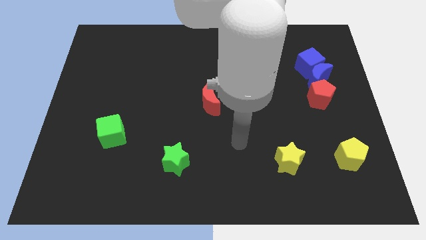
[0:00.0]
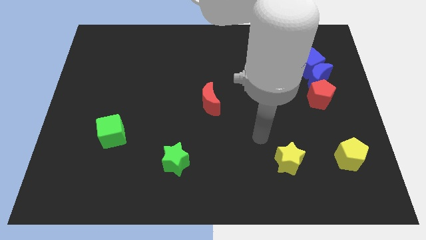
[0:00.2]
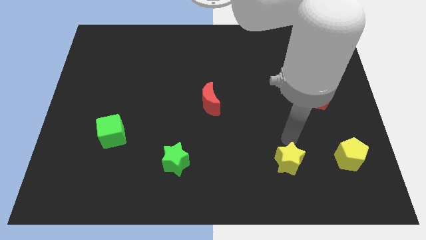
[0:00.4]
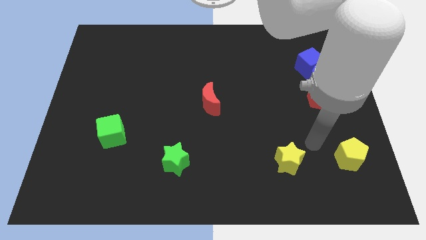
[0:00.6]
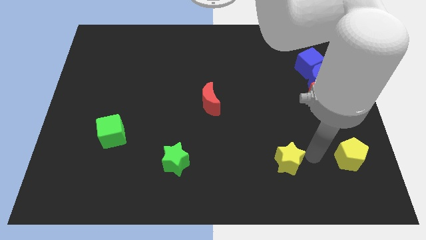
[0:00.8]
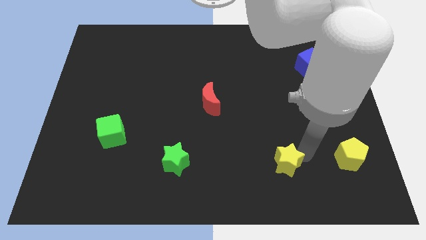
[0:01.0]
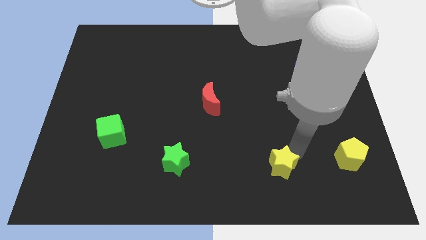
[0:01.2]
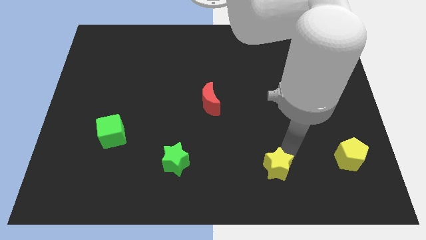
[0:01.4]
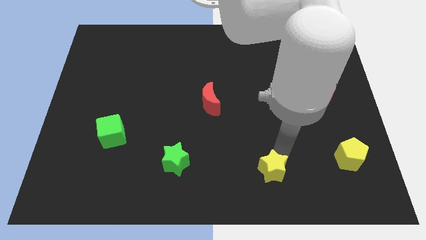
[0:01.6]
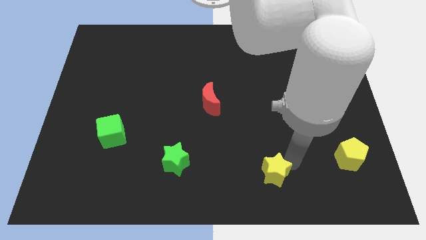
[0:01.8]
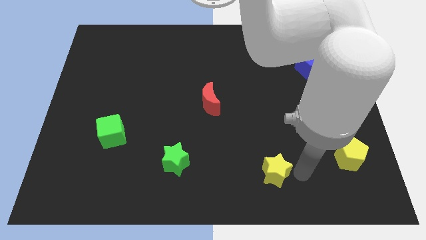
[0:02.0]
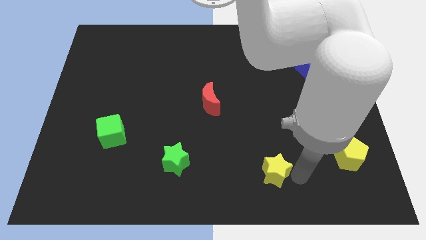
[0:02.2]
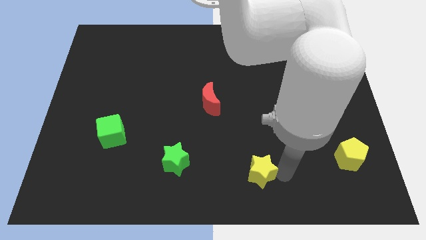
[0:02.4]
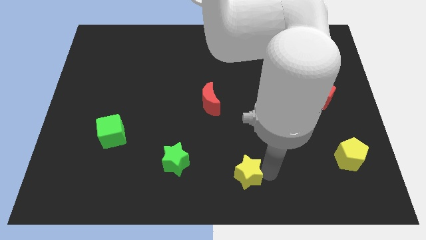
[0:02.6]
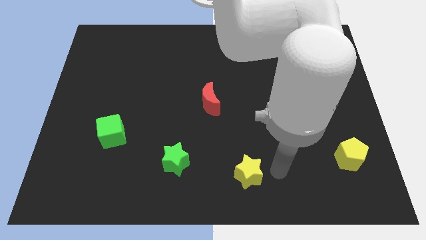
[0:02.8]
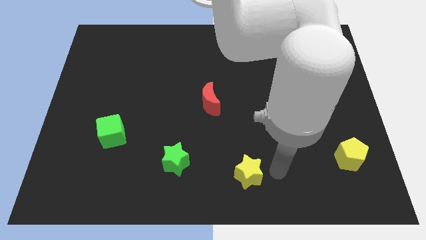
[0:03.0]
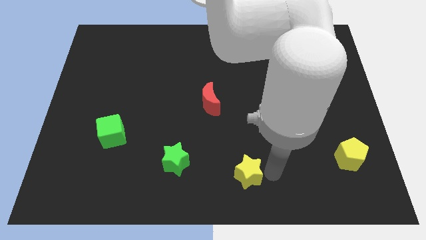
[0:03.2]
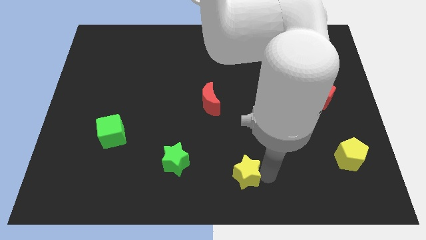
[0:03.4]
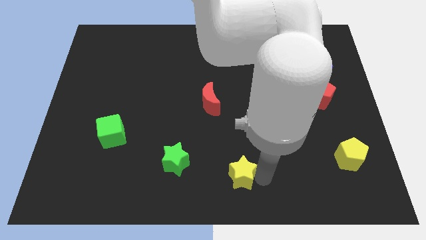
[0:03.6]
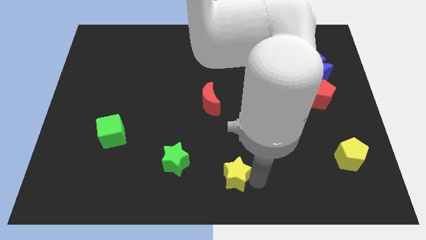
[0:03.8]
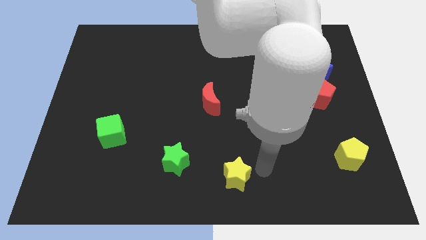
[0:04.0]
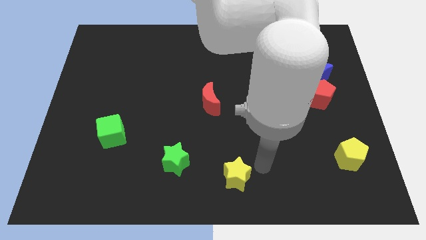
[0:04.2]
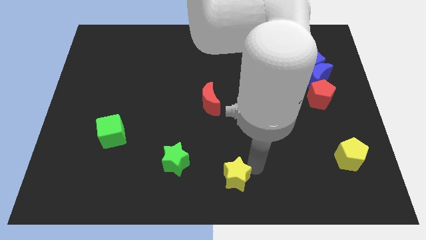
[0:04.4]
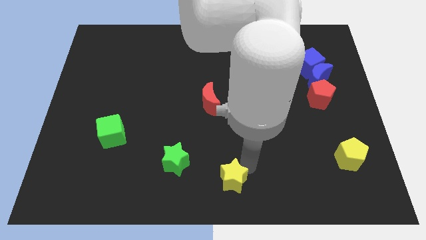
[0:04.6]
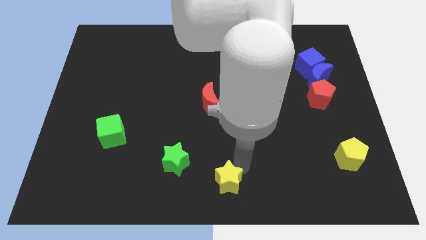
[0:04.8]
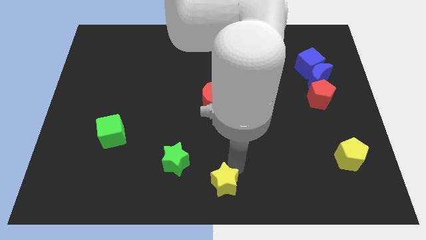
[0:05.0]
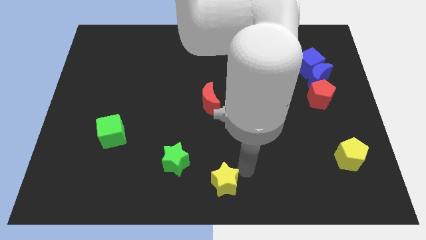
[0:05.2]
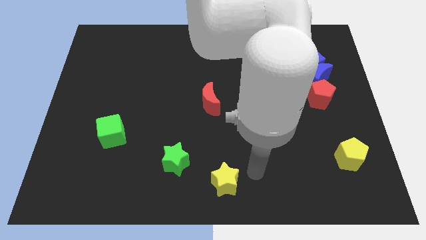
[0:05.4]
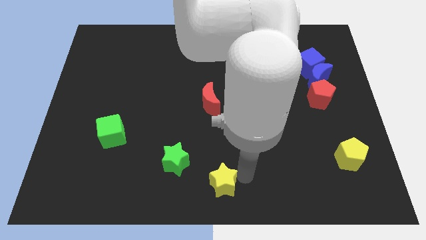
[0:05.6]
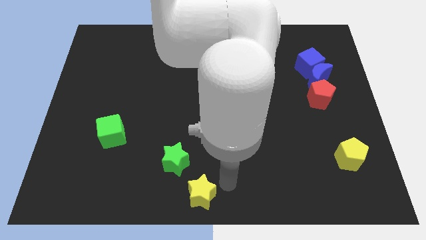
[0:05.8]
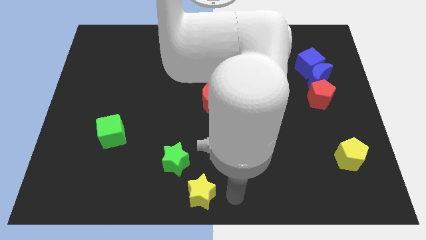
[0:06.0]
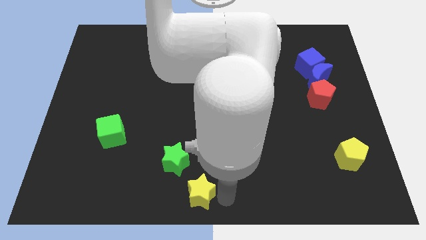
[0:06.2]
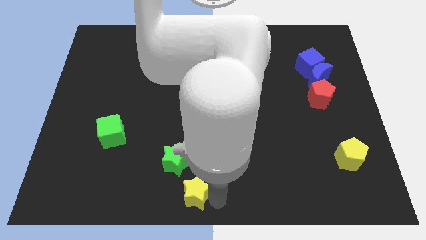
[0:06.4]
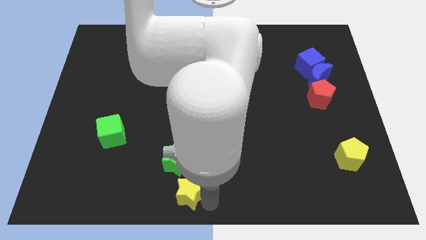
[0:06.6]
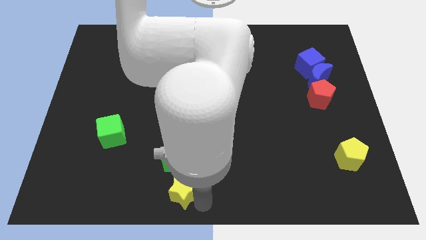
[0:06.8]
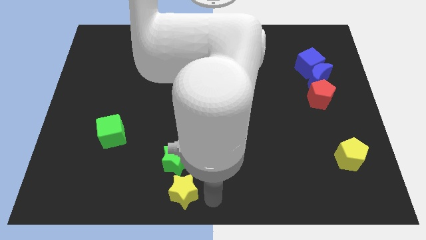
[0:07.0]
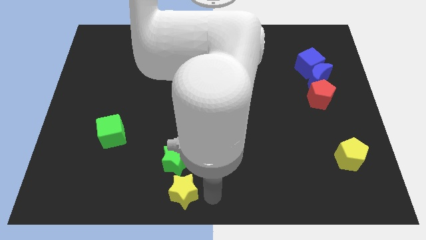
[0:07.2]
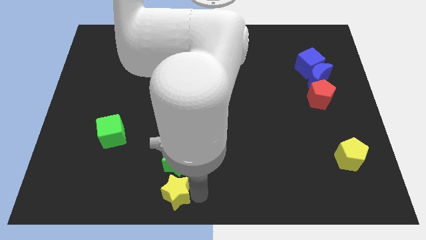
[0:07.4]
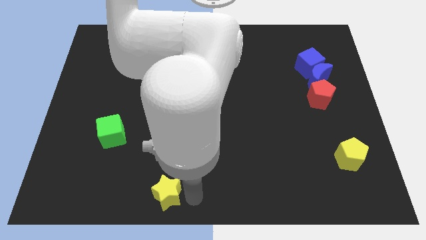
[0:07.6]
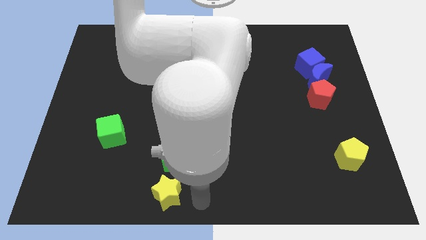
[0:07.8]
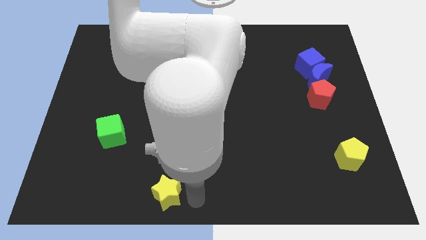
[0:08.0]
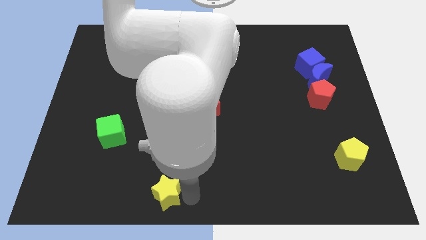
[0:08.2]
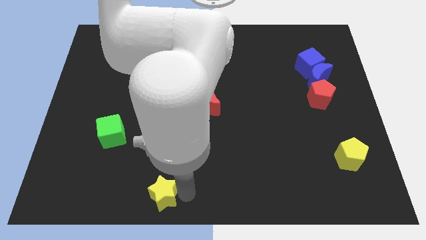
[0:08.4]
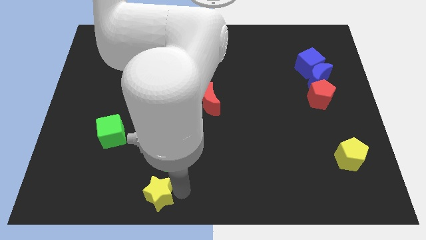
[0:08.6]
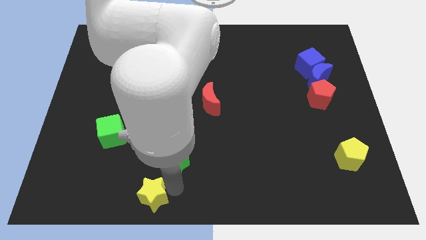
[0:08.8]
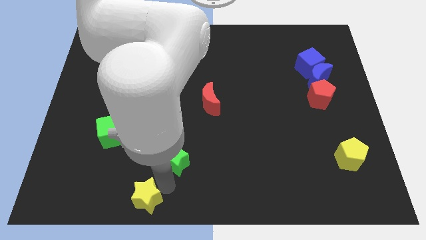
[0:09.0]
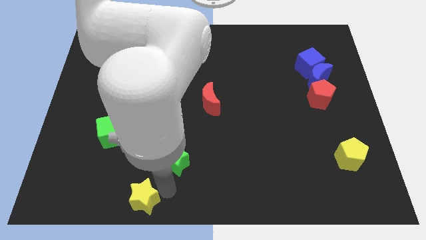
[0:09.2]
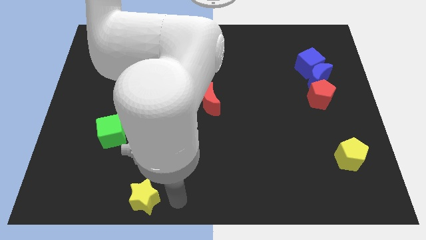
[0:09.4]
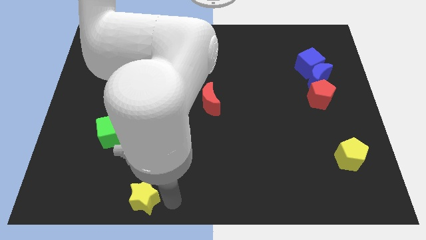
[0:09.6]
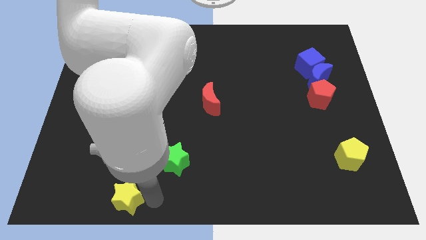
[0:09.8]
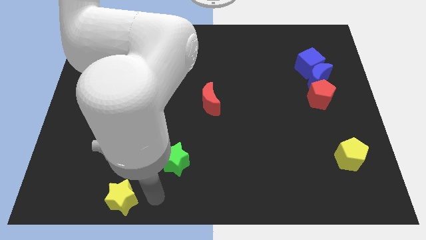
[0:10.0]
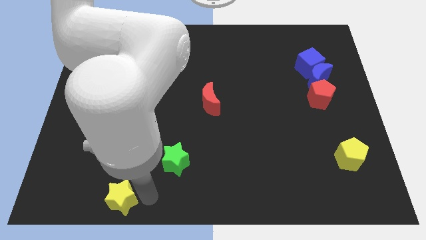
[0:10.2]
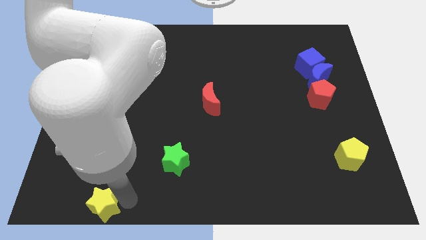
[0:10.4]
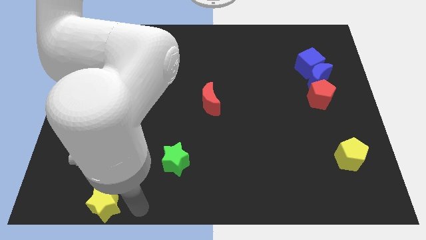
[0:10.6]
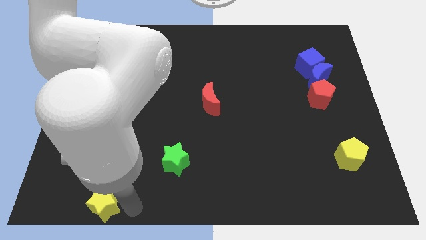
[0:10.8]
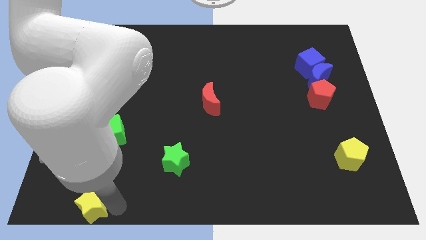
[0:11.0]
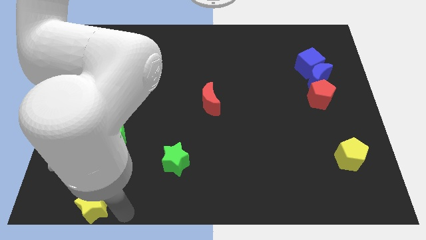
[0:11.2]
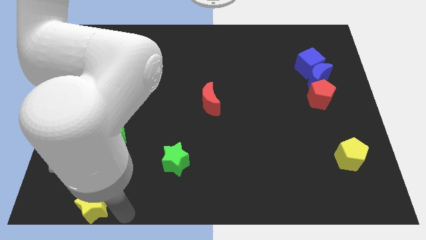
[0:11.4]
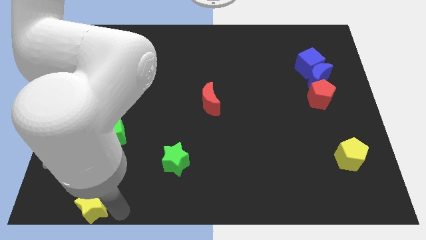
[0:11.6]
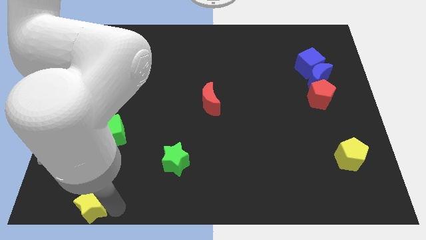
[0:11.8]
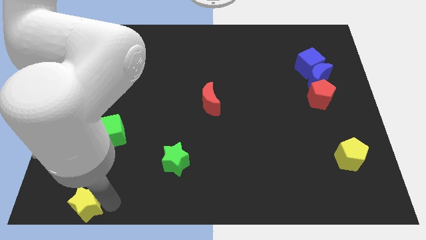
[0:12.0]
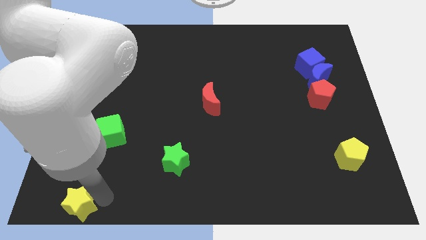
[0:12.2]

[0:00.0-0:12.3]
push the yellow star to the bottom left corner
